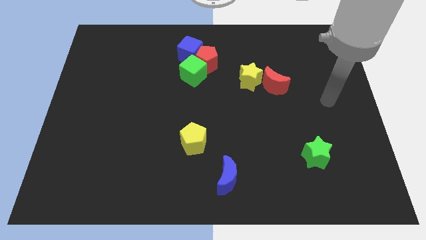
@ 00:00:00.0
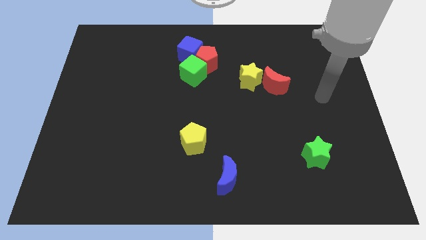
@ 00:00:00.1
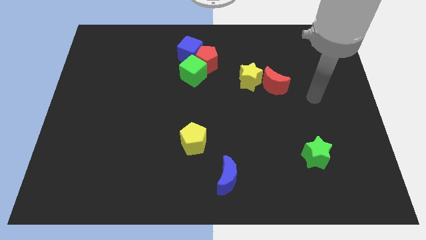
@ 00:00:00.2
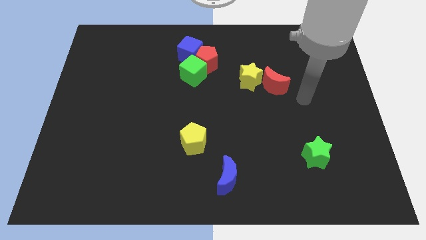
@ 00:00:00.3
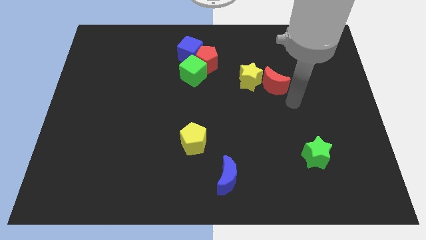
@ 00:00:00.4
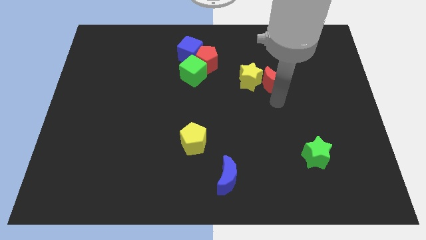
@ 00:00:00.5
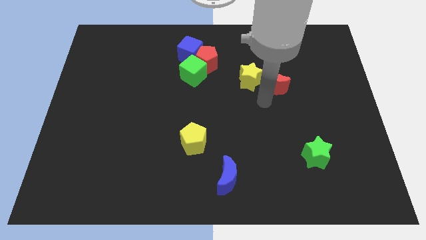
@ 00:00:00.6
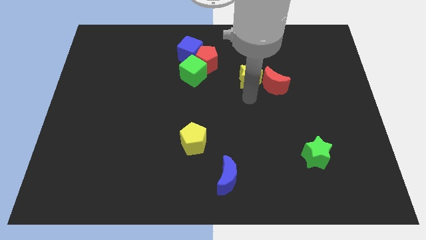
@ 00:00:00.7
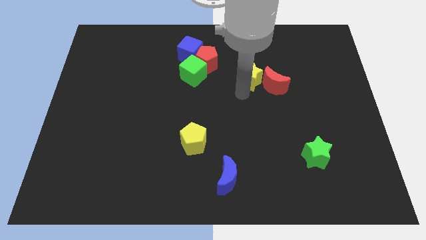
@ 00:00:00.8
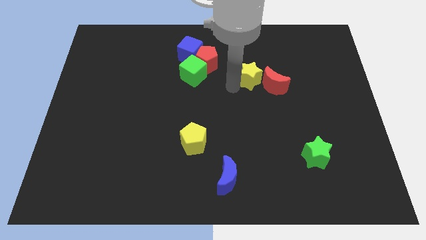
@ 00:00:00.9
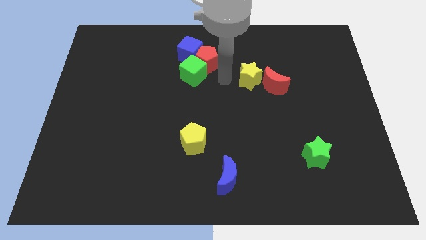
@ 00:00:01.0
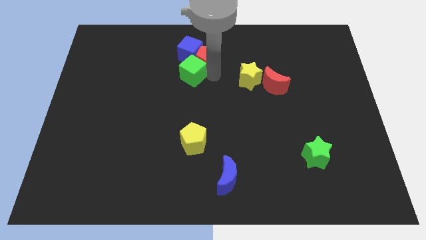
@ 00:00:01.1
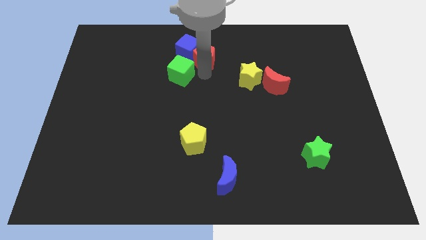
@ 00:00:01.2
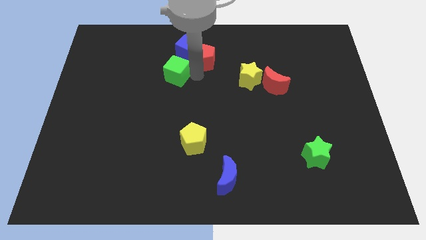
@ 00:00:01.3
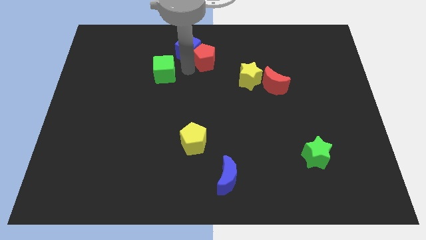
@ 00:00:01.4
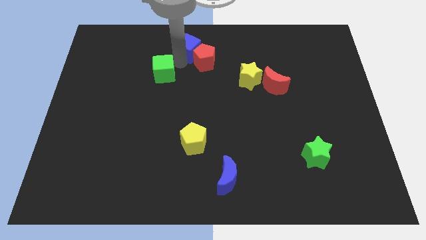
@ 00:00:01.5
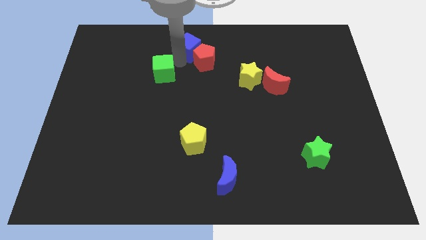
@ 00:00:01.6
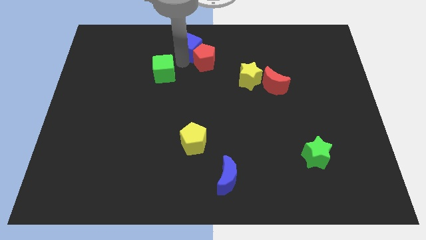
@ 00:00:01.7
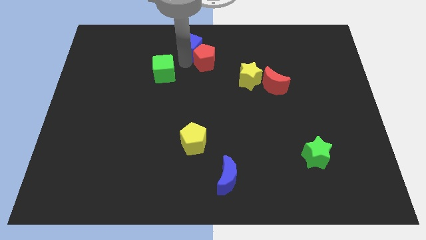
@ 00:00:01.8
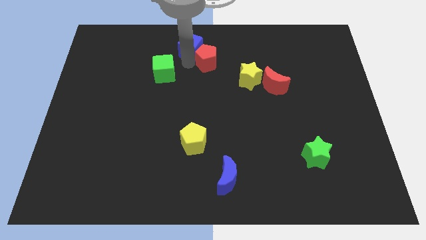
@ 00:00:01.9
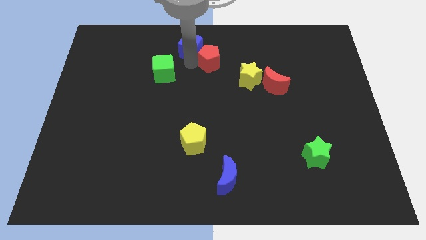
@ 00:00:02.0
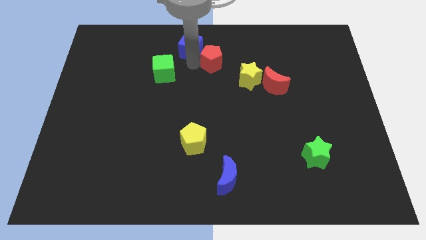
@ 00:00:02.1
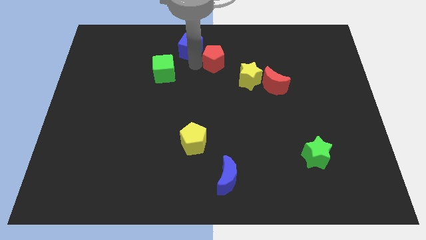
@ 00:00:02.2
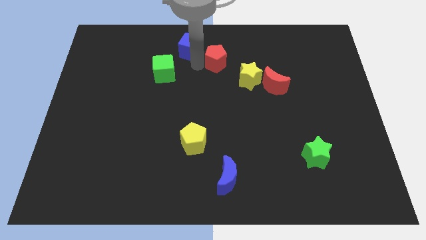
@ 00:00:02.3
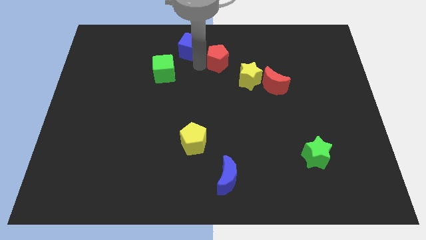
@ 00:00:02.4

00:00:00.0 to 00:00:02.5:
move the red pentagon away from the green cube and blue cube

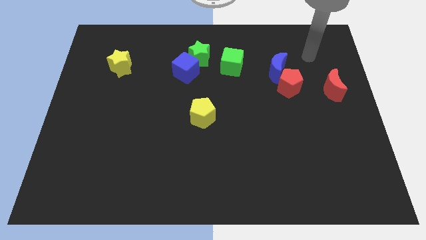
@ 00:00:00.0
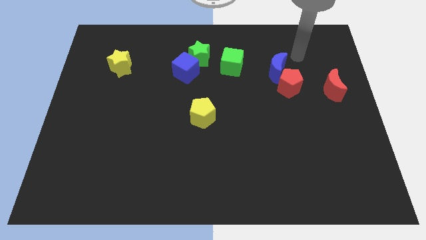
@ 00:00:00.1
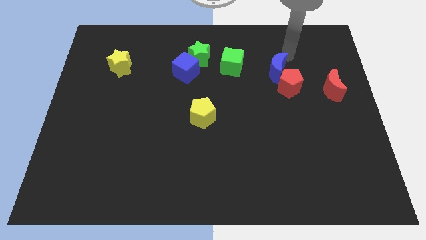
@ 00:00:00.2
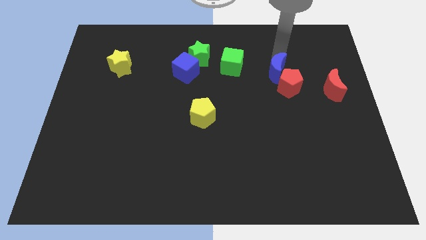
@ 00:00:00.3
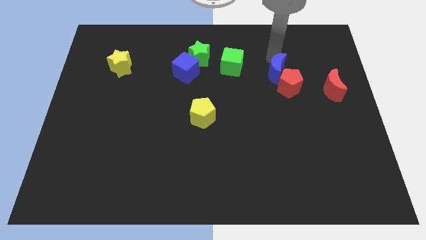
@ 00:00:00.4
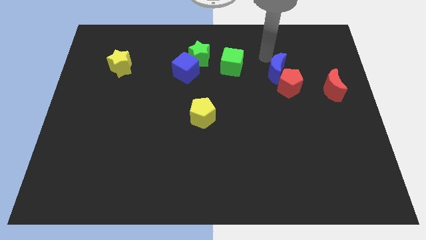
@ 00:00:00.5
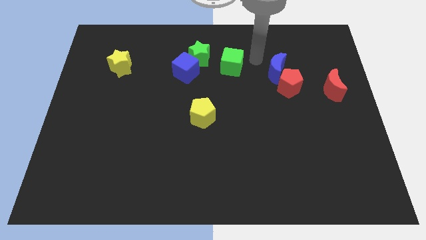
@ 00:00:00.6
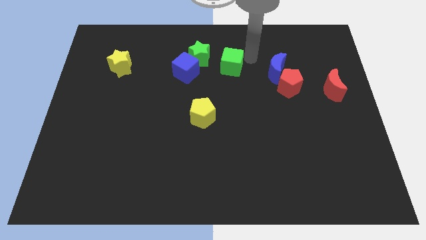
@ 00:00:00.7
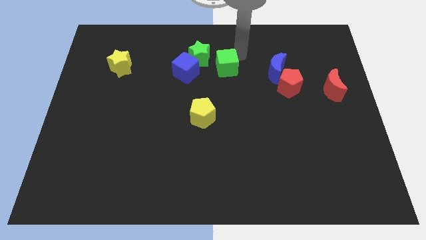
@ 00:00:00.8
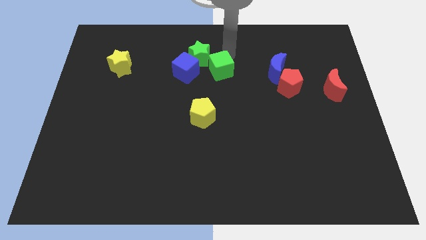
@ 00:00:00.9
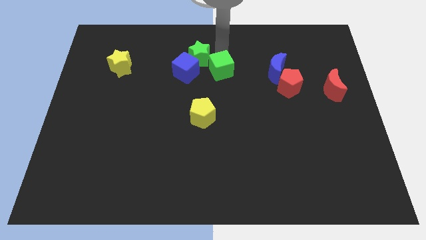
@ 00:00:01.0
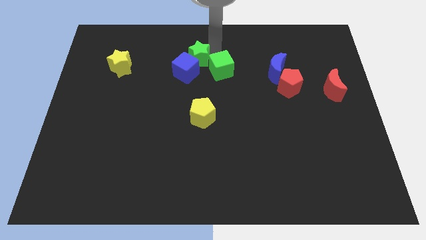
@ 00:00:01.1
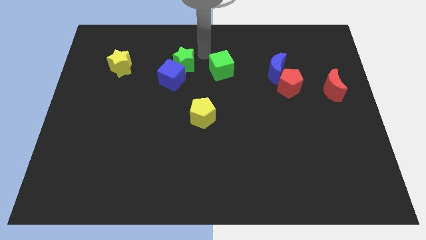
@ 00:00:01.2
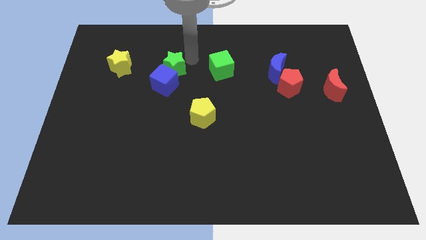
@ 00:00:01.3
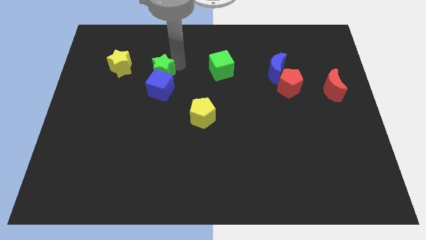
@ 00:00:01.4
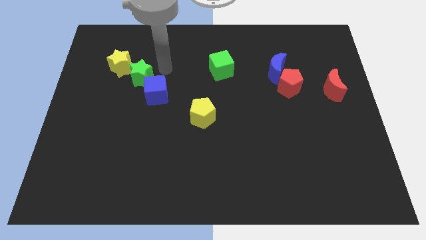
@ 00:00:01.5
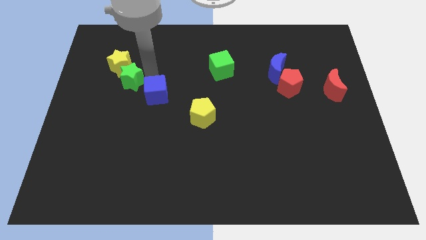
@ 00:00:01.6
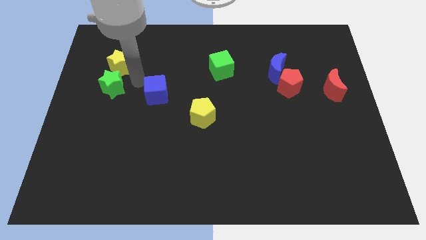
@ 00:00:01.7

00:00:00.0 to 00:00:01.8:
separate the blue cube from the green star

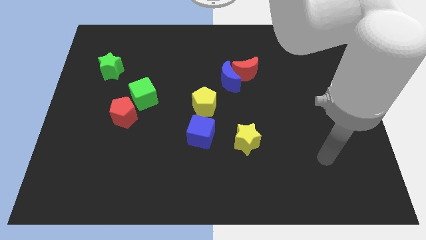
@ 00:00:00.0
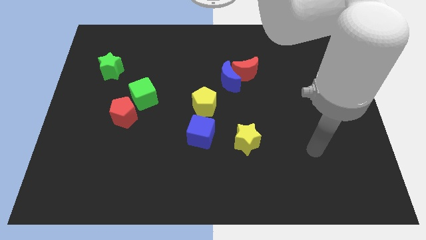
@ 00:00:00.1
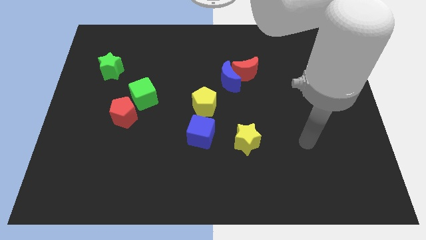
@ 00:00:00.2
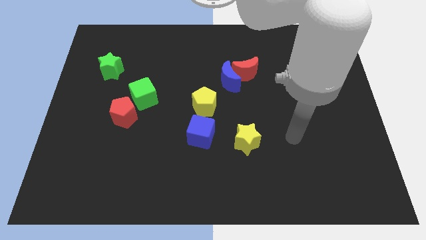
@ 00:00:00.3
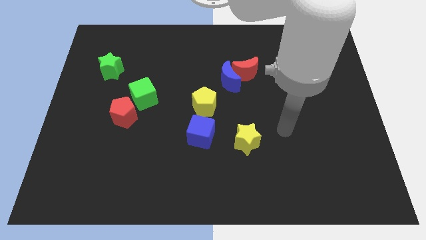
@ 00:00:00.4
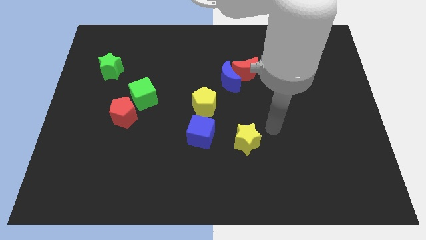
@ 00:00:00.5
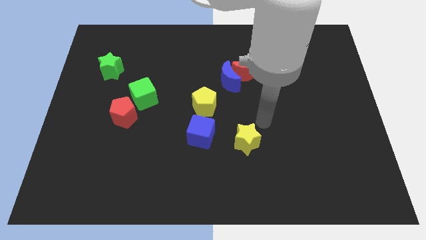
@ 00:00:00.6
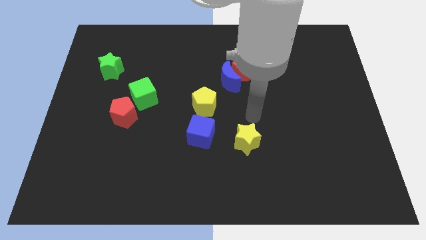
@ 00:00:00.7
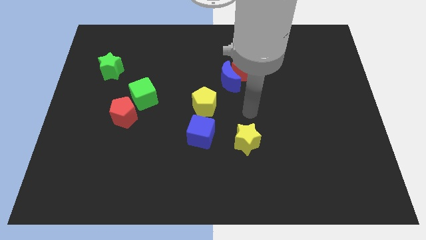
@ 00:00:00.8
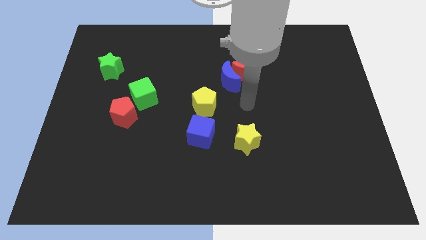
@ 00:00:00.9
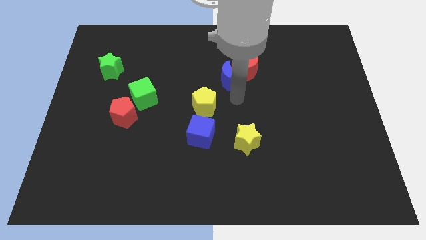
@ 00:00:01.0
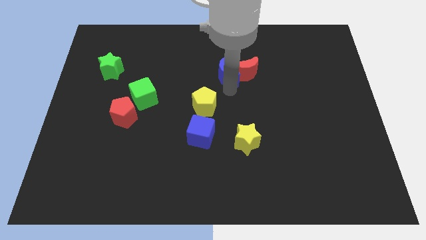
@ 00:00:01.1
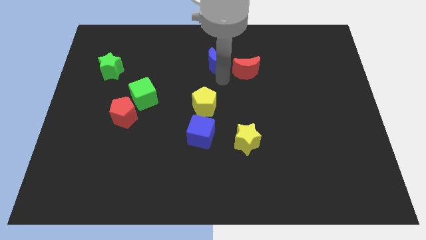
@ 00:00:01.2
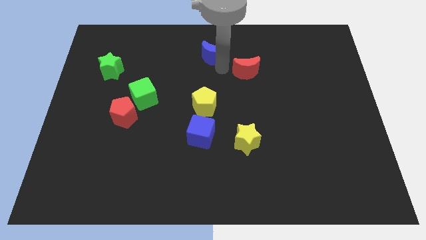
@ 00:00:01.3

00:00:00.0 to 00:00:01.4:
separate the red moon from the blue moon

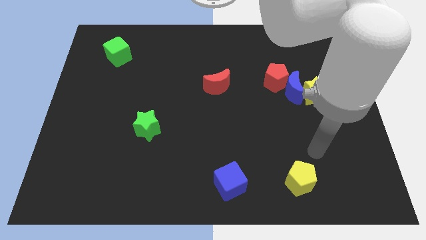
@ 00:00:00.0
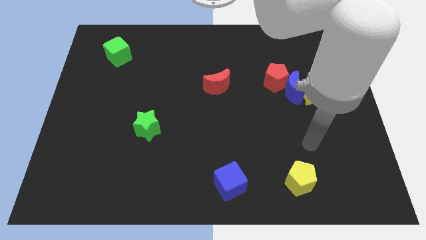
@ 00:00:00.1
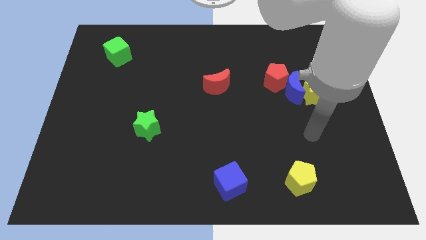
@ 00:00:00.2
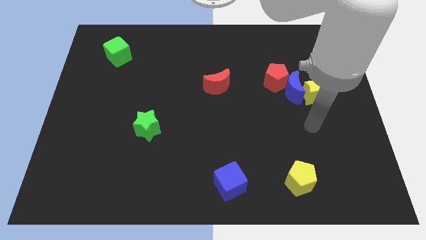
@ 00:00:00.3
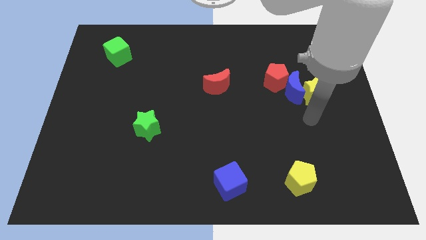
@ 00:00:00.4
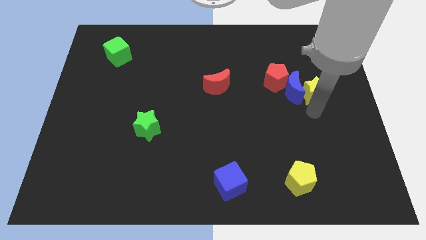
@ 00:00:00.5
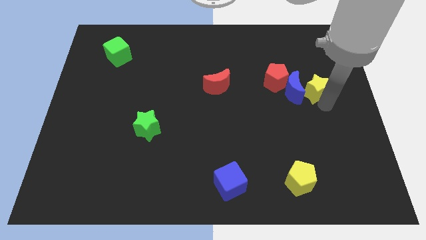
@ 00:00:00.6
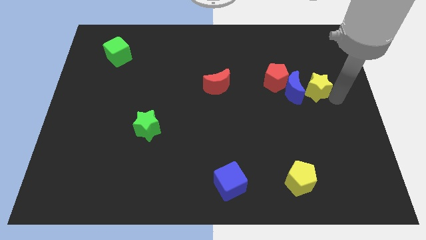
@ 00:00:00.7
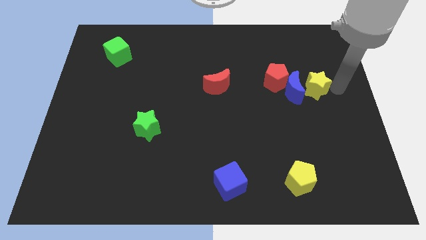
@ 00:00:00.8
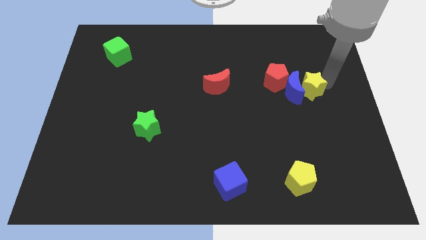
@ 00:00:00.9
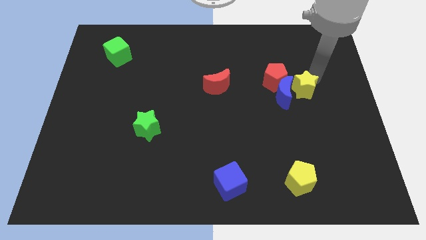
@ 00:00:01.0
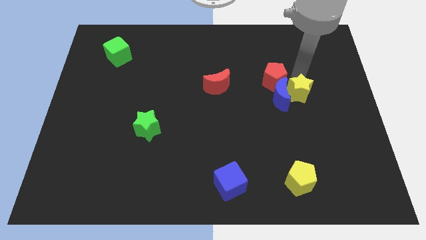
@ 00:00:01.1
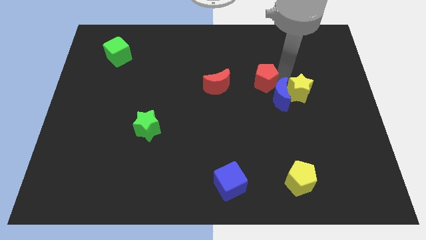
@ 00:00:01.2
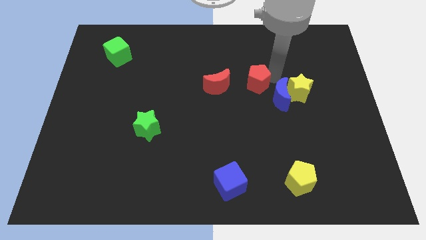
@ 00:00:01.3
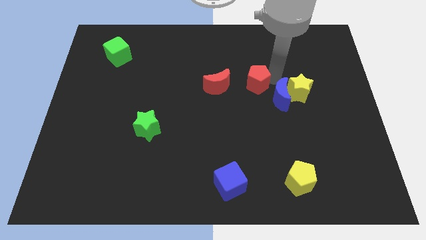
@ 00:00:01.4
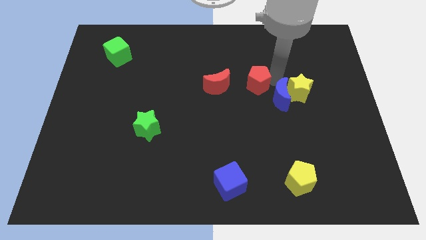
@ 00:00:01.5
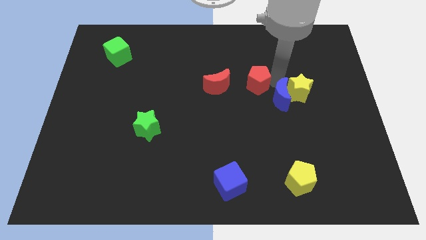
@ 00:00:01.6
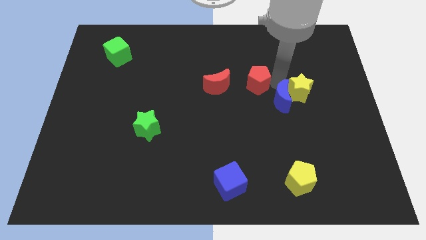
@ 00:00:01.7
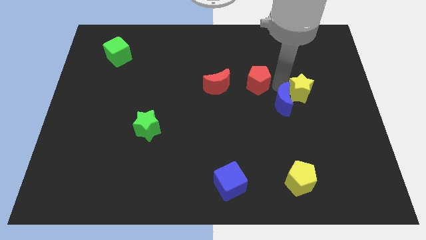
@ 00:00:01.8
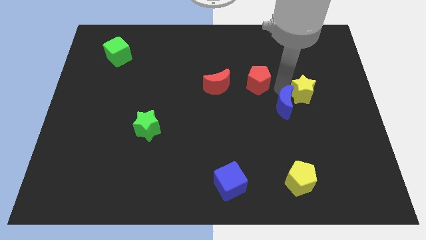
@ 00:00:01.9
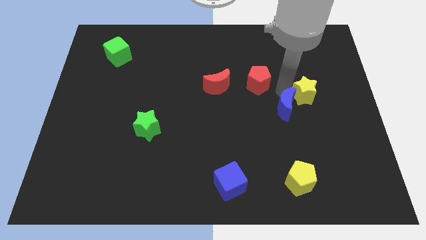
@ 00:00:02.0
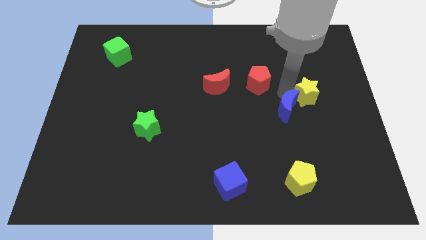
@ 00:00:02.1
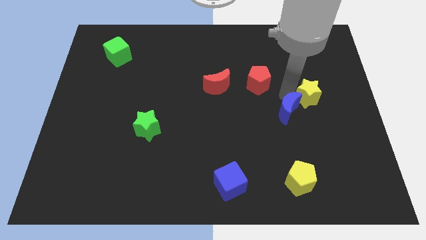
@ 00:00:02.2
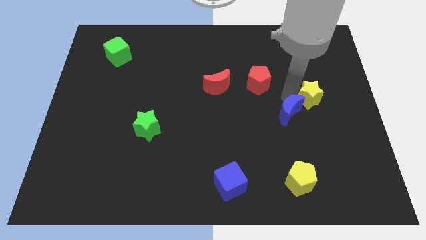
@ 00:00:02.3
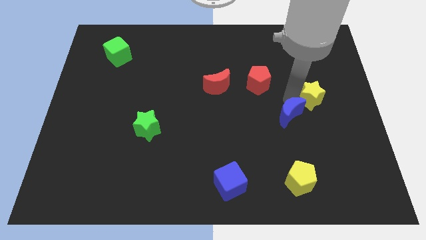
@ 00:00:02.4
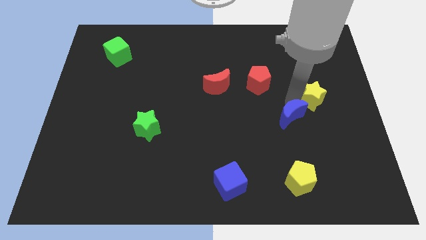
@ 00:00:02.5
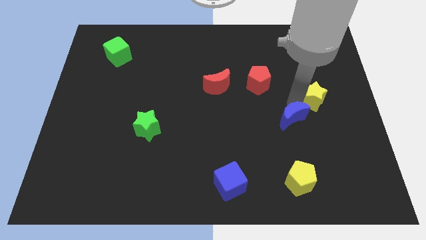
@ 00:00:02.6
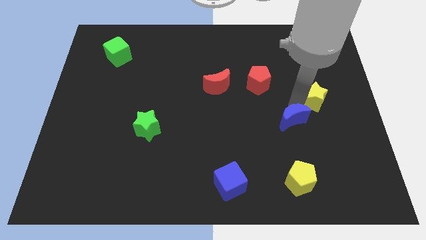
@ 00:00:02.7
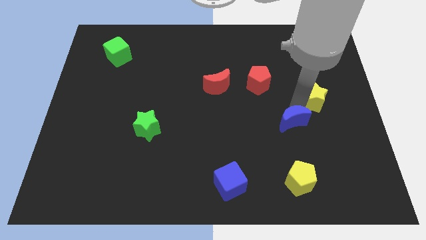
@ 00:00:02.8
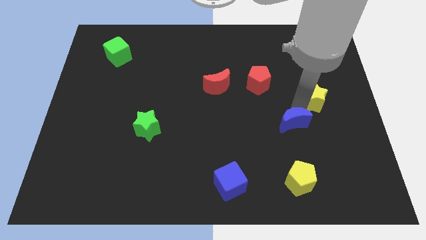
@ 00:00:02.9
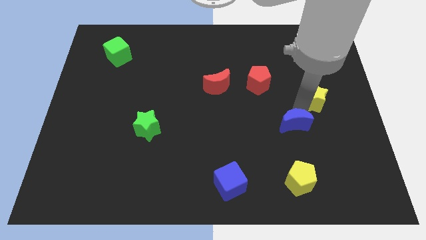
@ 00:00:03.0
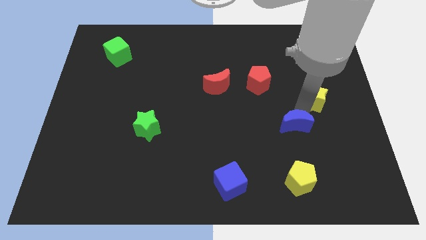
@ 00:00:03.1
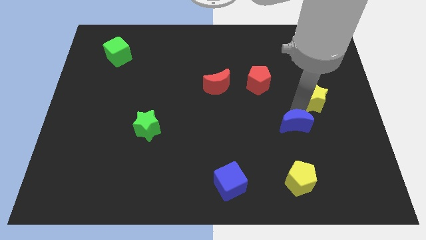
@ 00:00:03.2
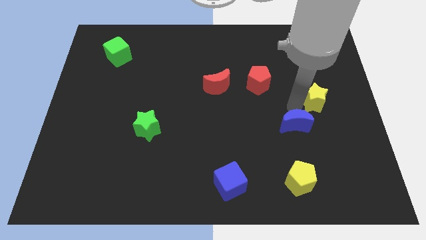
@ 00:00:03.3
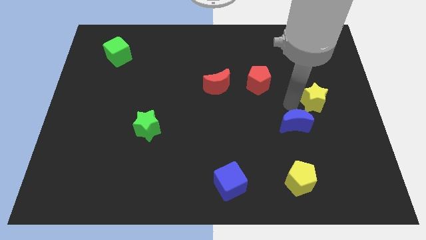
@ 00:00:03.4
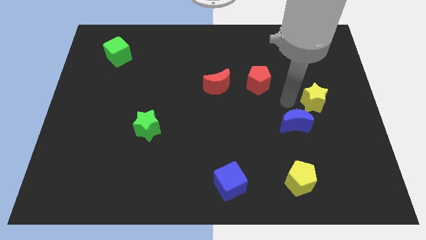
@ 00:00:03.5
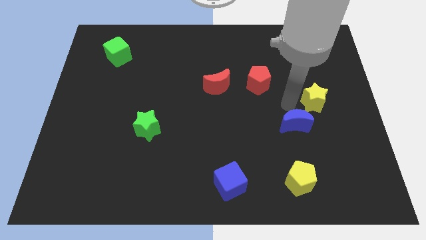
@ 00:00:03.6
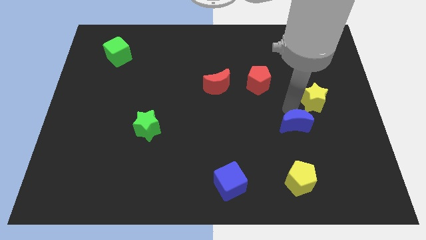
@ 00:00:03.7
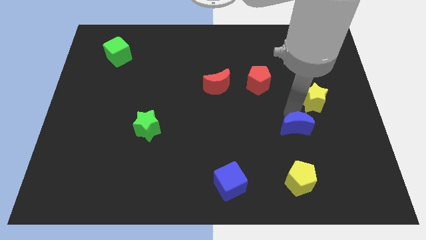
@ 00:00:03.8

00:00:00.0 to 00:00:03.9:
separate the blue moon from the yellow star and red pentagon
